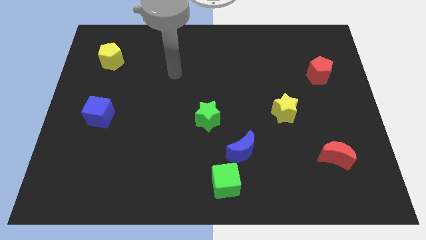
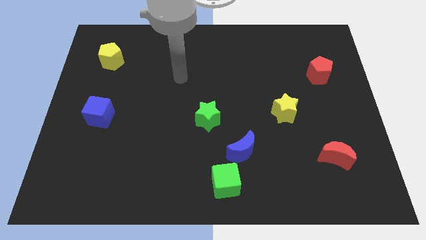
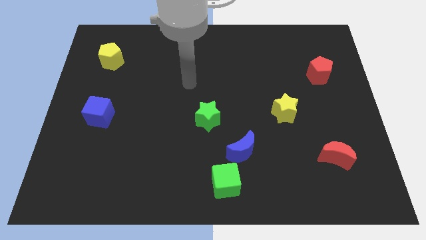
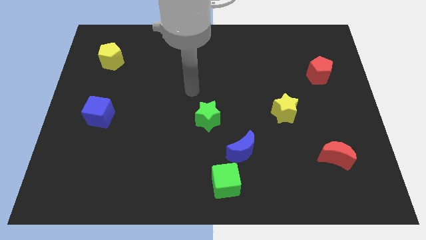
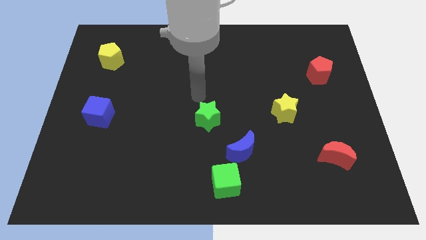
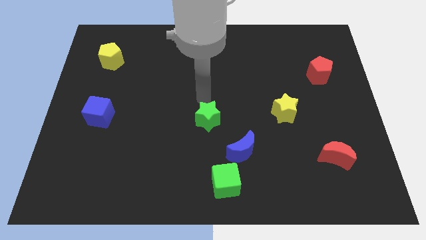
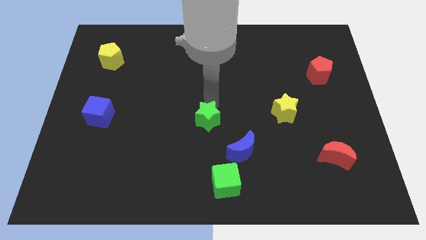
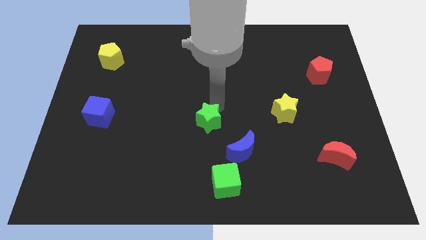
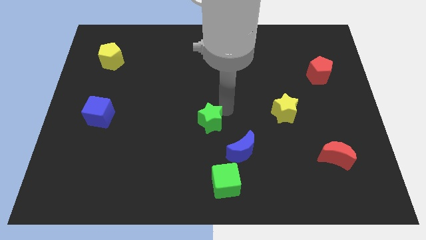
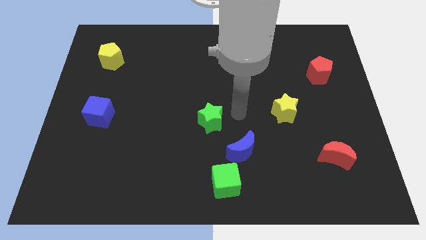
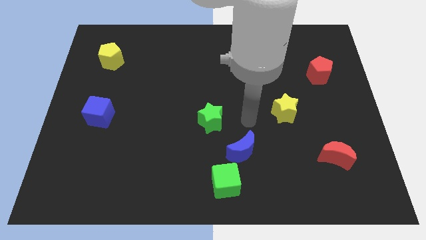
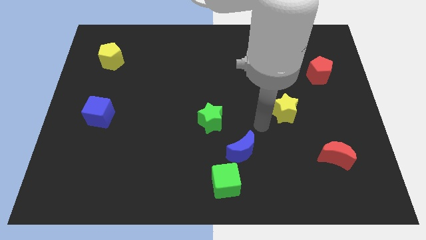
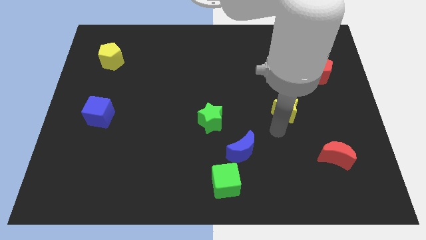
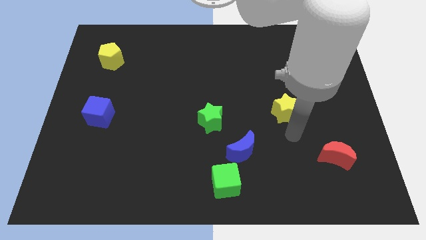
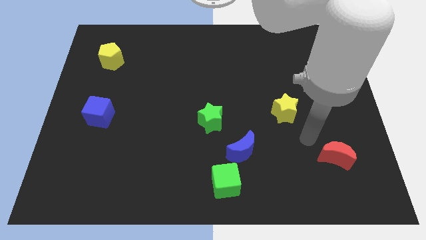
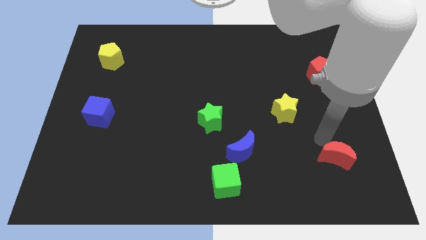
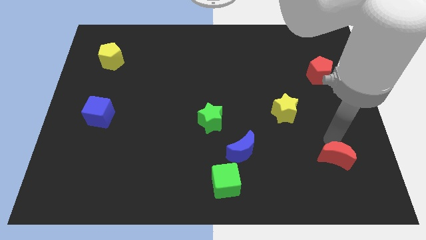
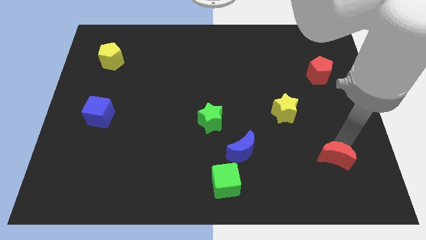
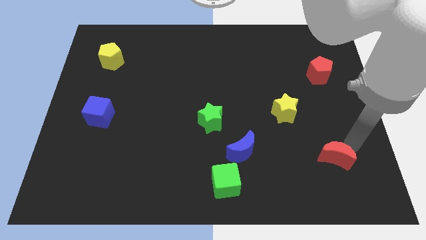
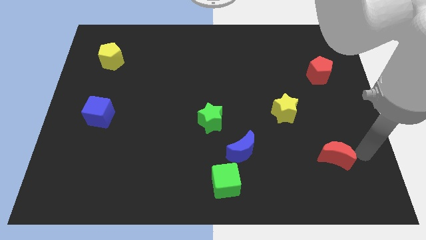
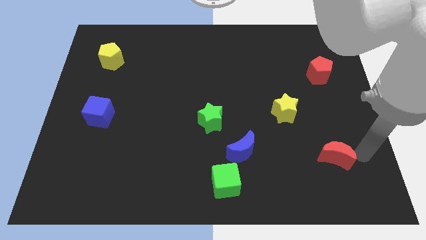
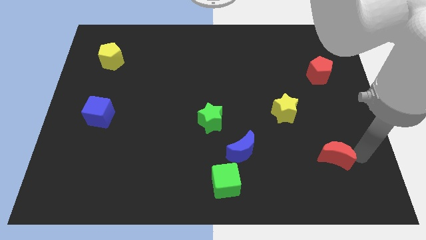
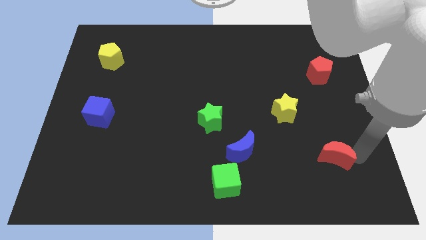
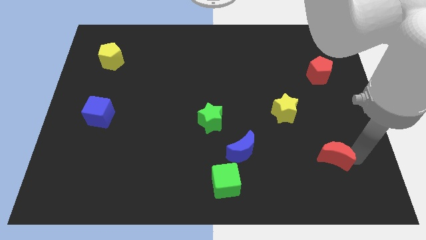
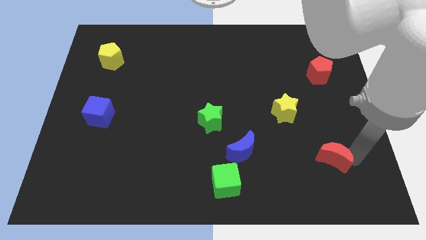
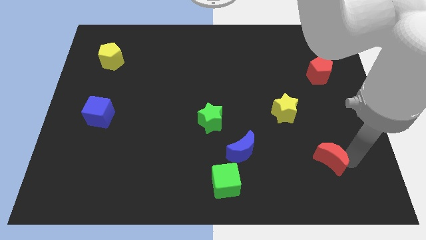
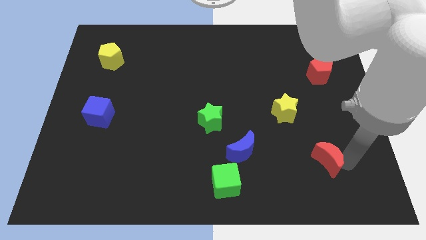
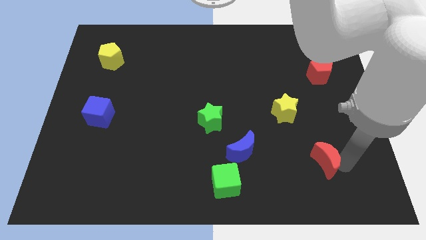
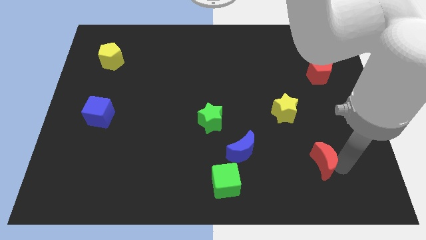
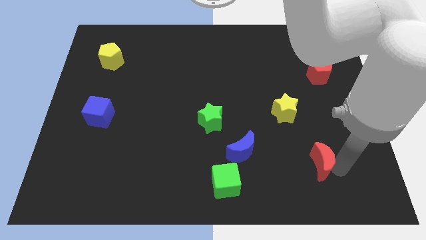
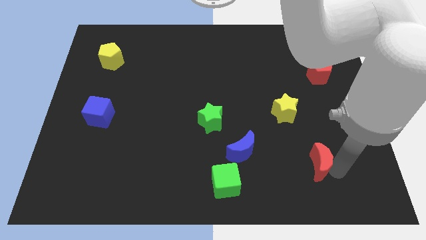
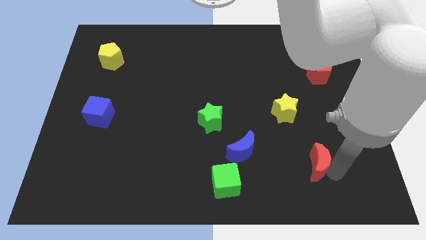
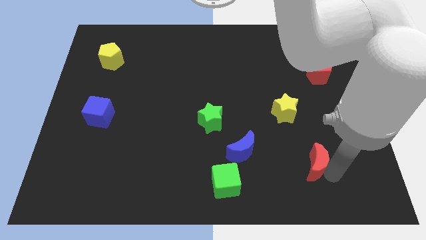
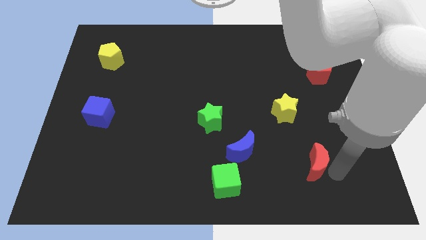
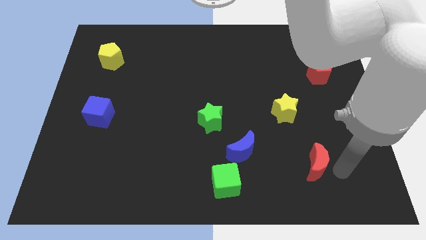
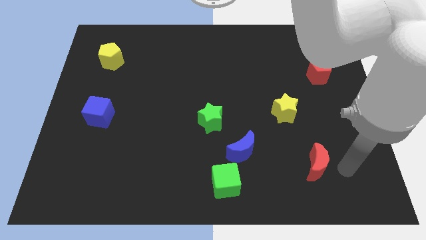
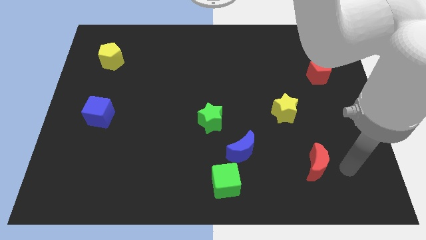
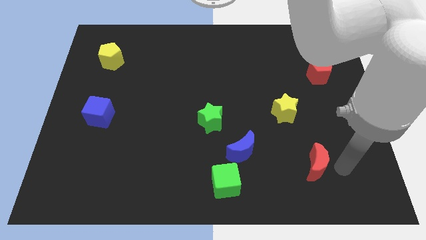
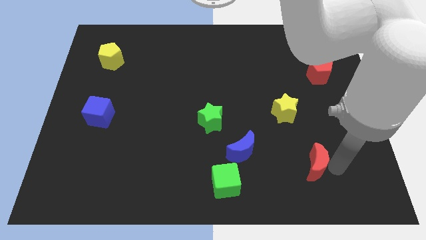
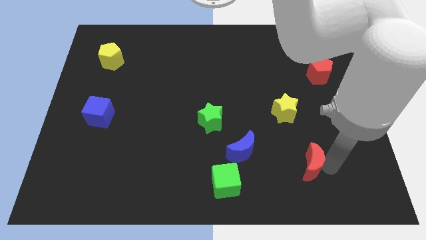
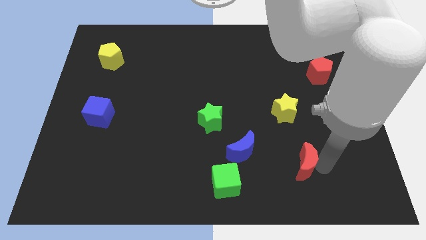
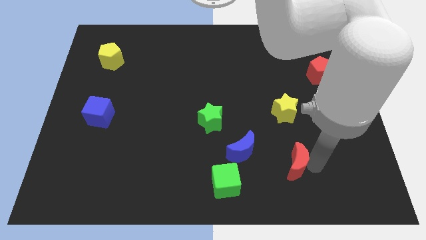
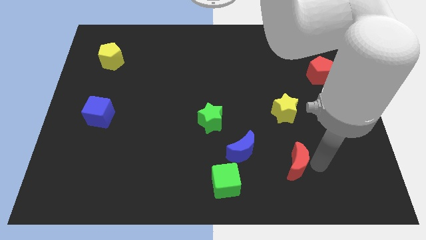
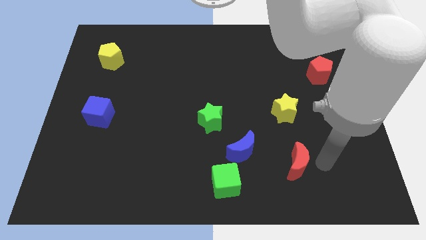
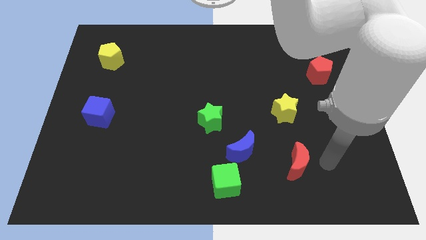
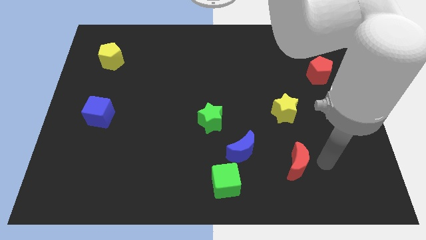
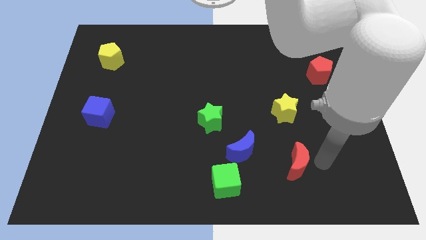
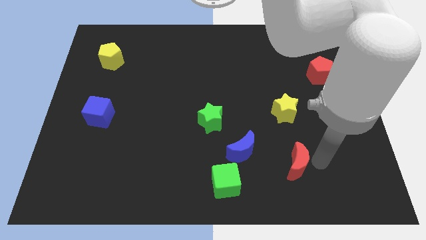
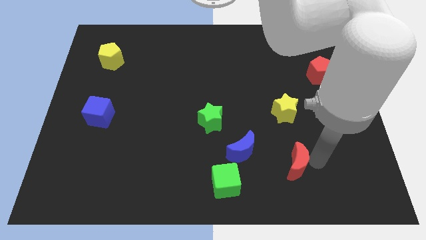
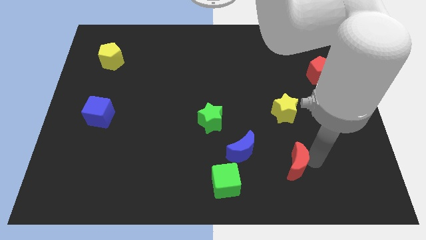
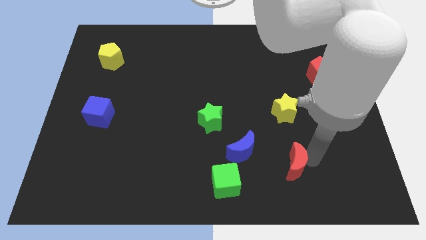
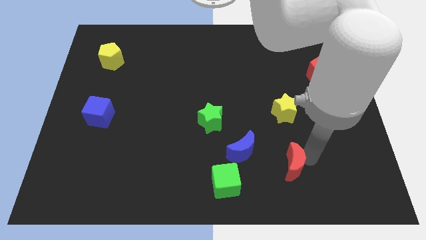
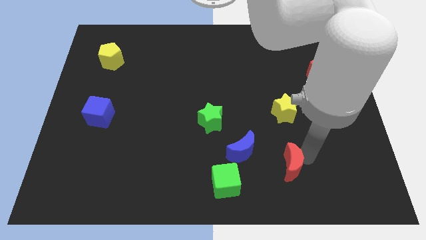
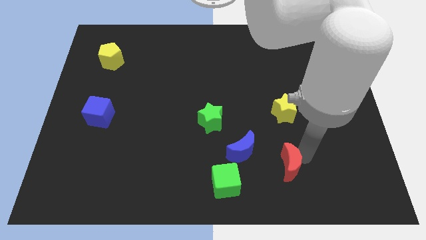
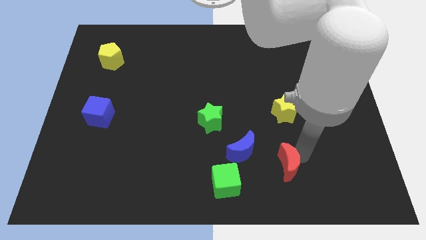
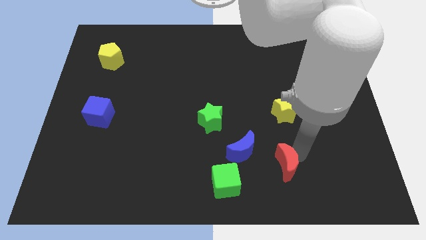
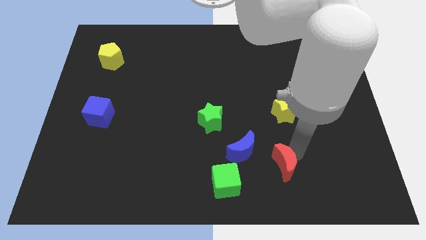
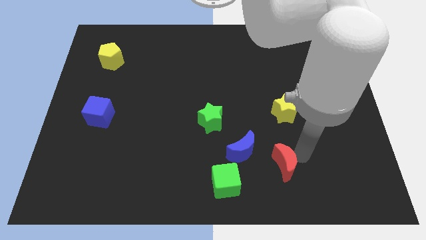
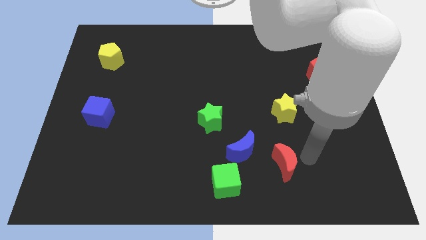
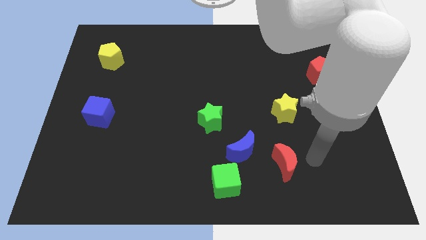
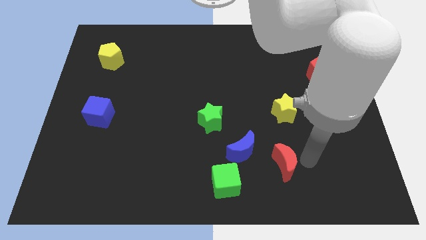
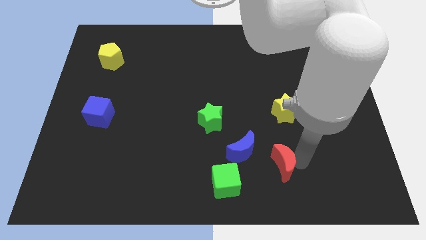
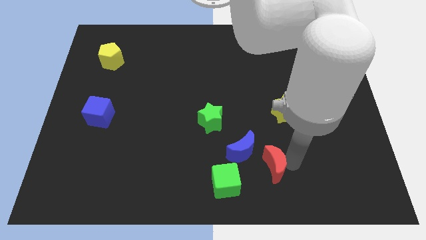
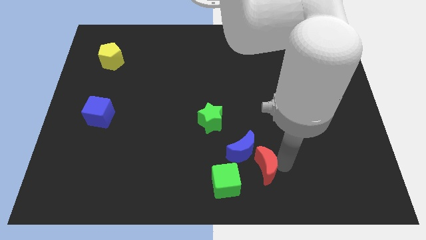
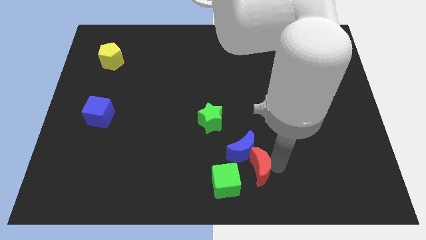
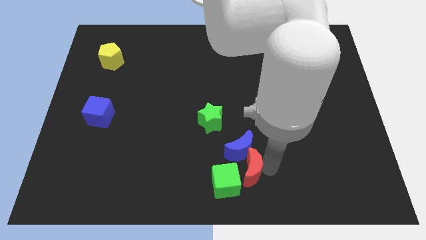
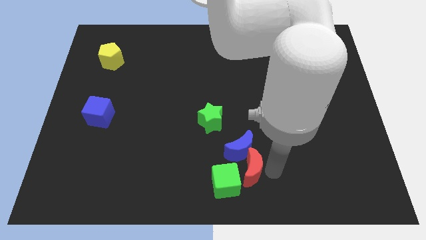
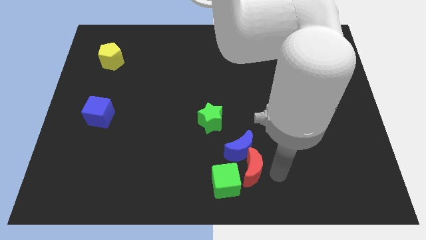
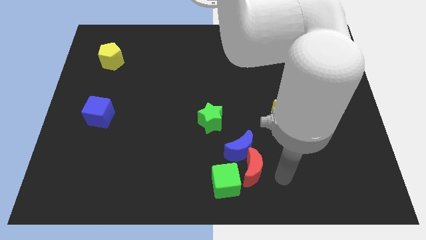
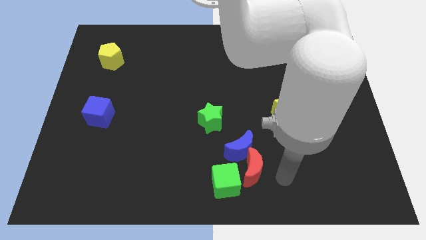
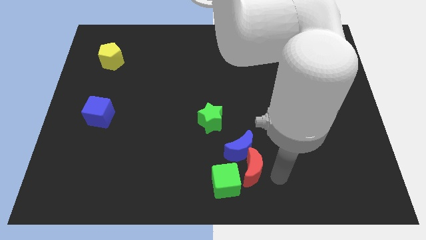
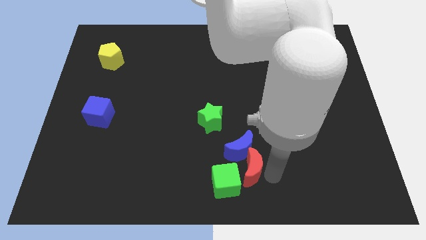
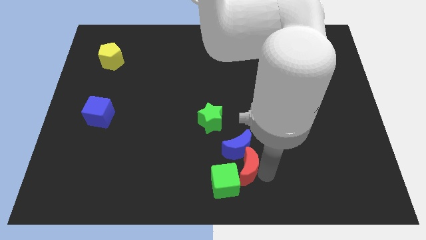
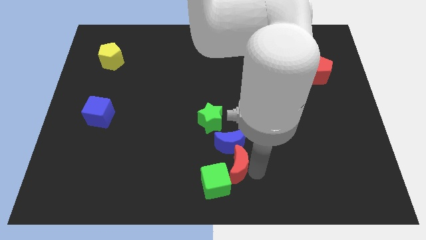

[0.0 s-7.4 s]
push the red moon left

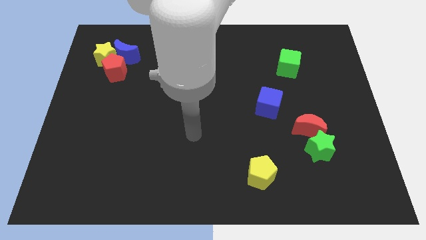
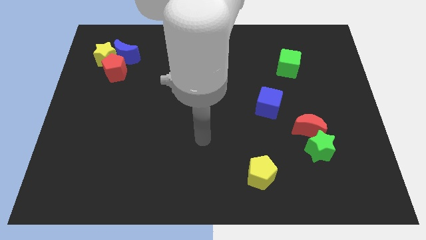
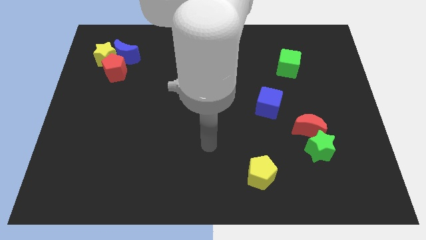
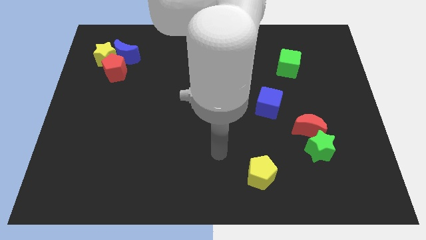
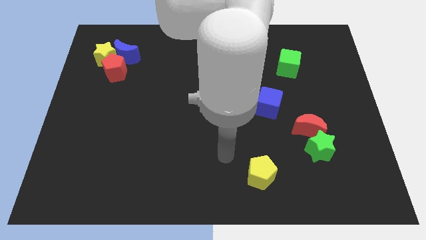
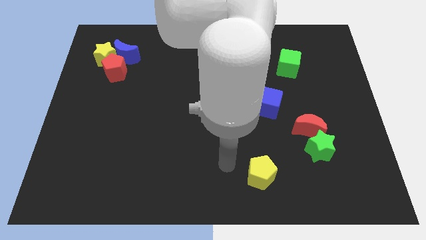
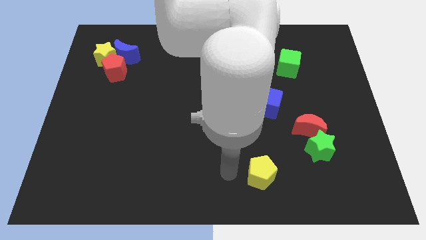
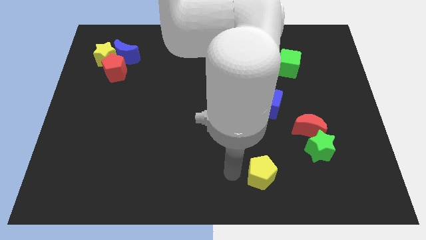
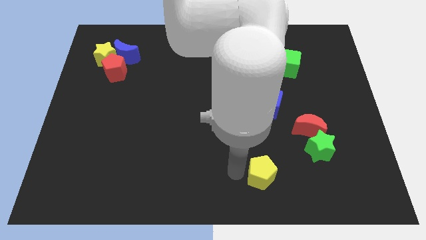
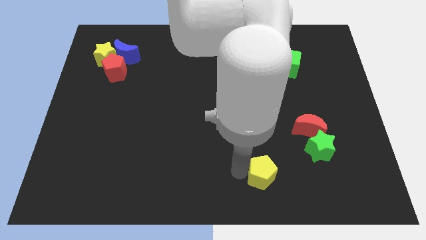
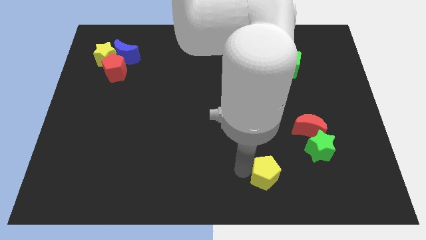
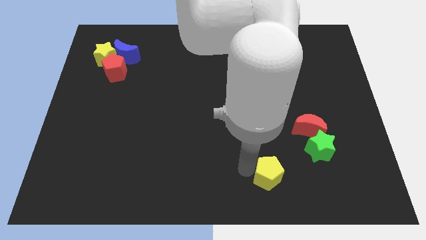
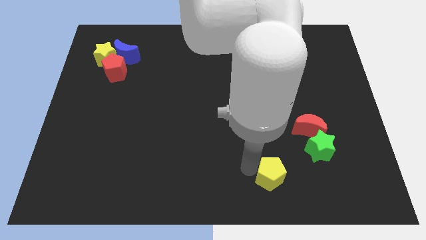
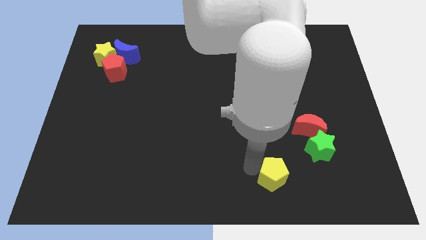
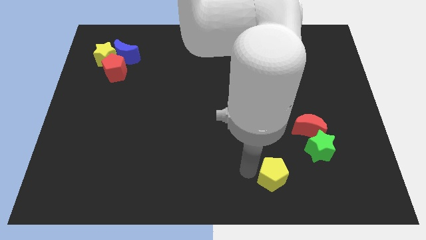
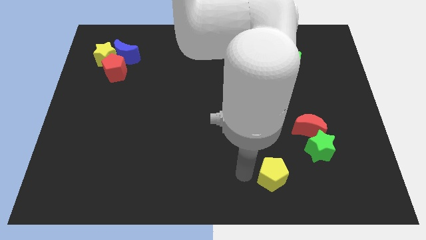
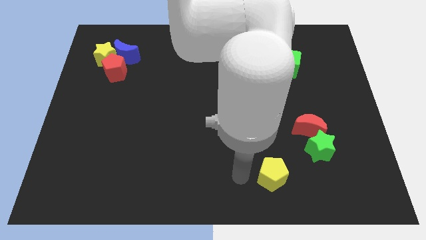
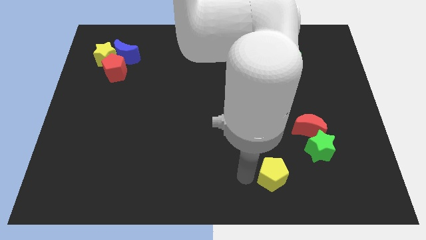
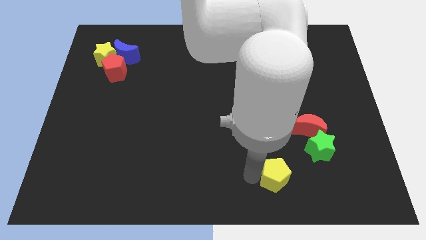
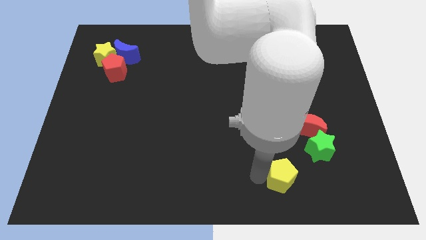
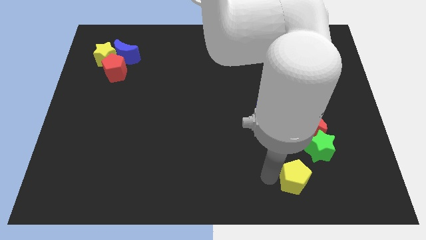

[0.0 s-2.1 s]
slightly move the yellow pentagon right
